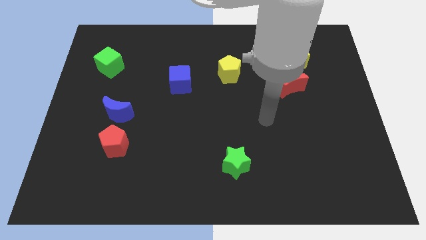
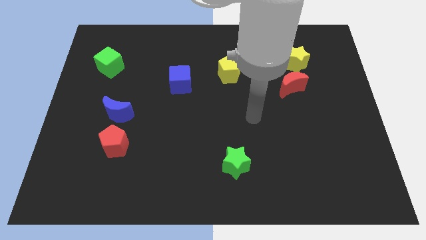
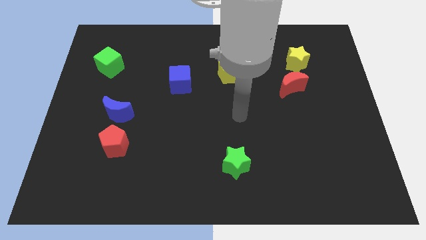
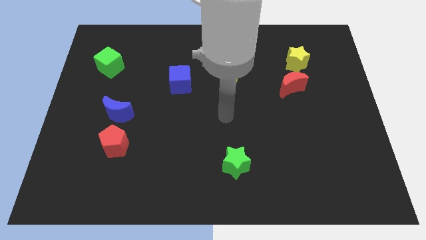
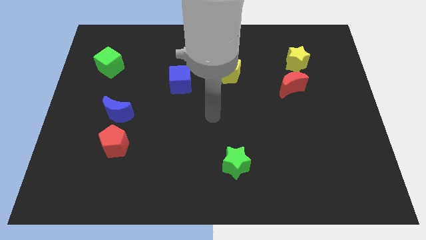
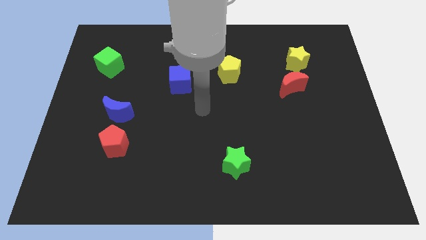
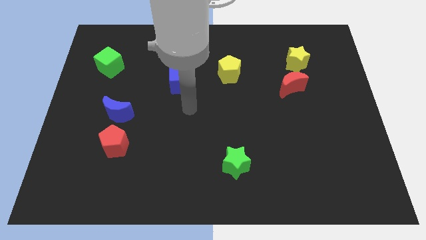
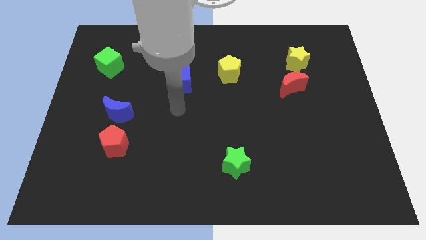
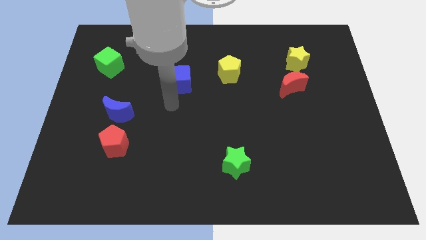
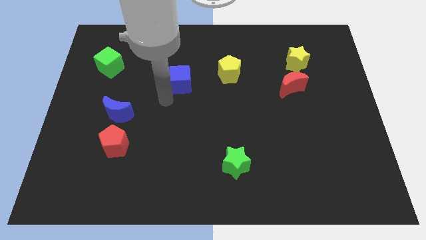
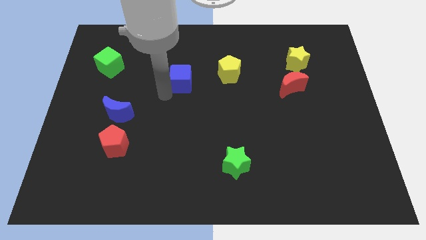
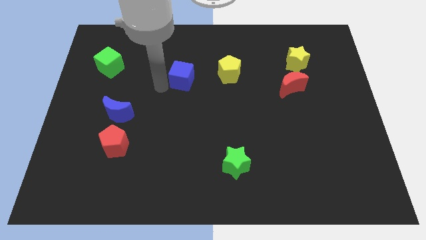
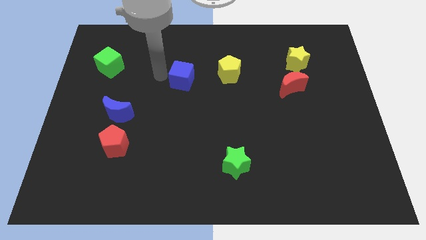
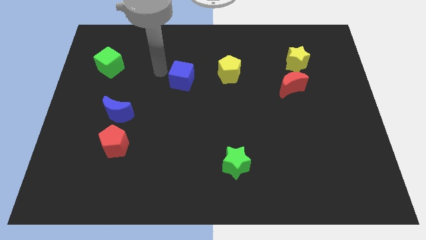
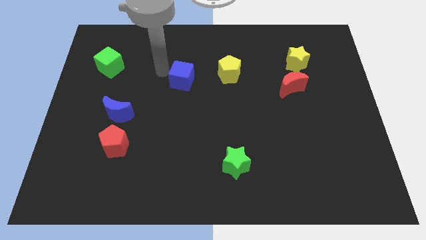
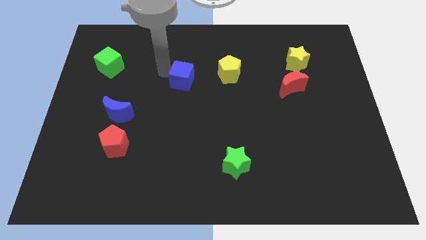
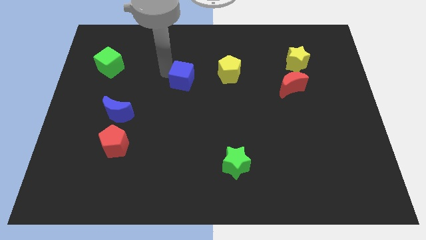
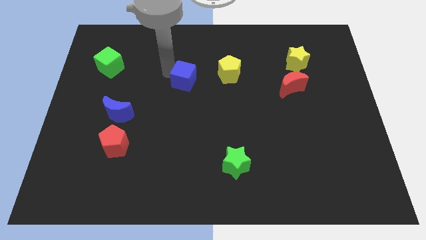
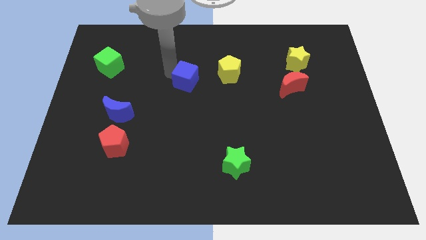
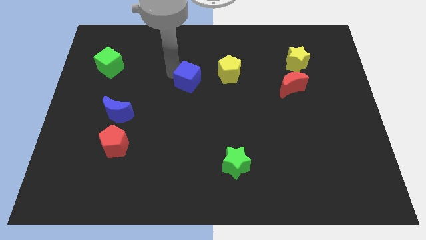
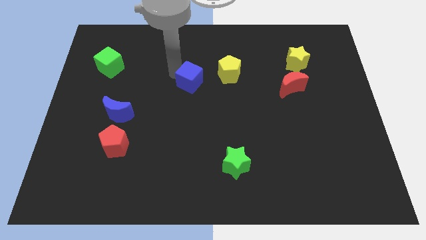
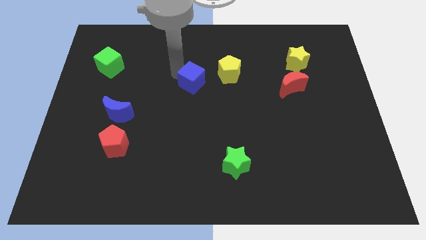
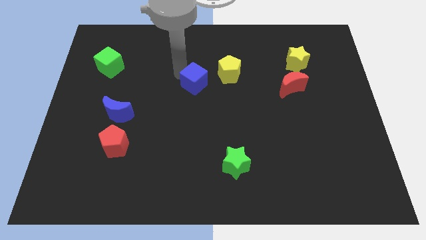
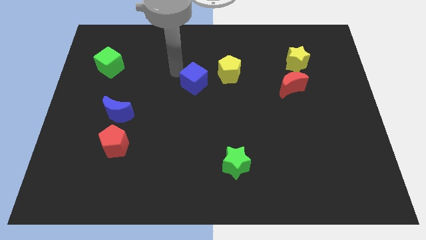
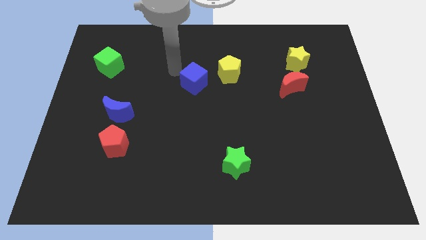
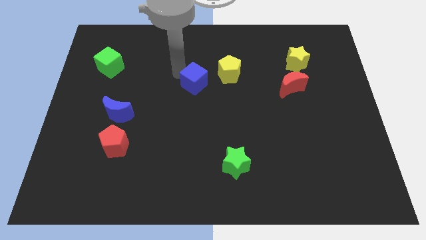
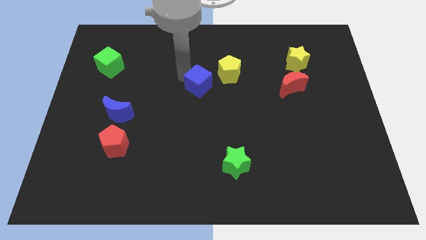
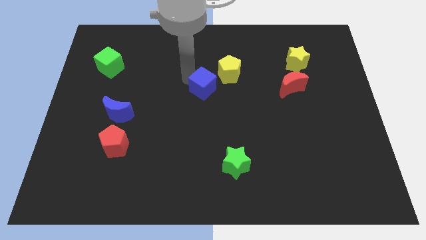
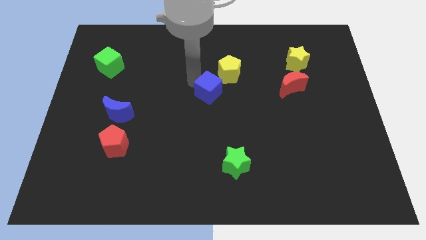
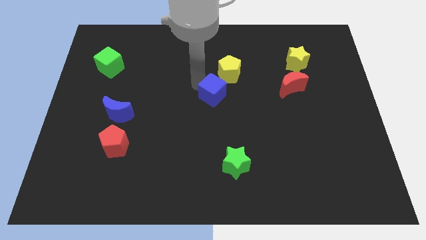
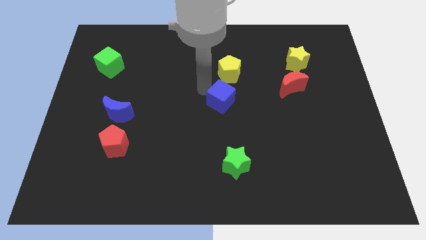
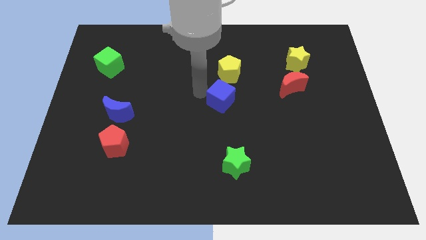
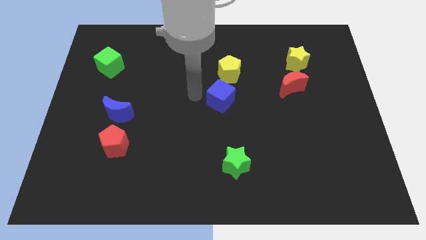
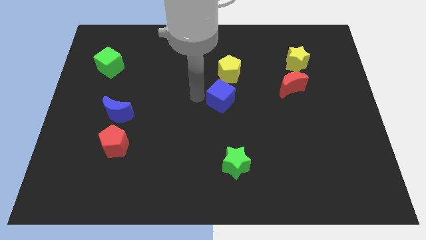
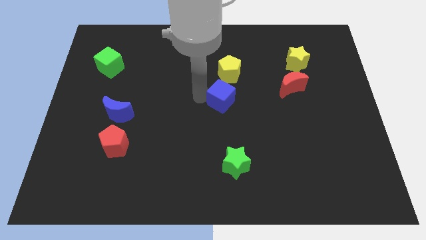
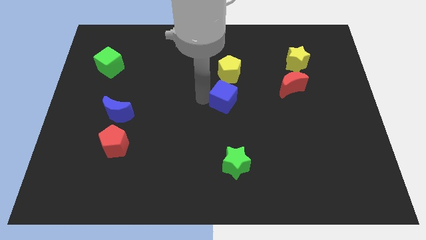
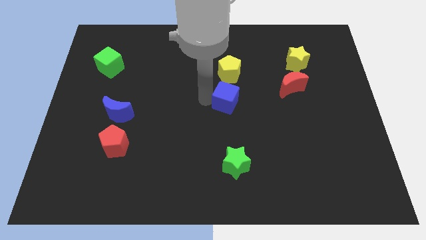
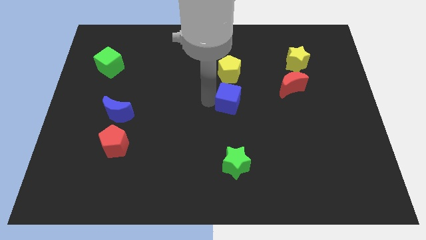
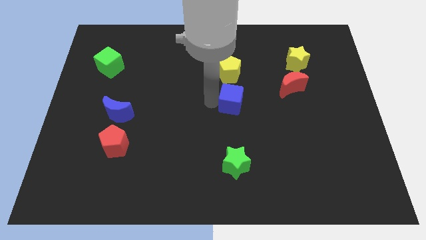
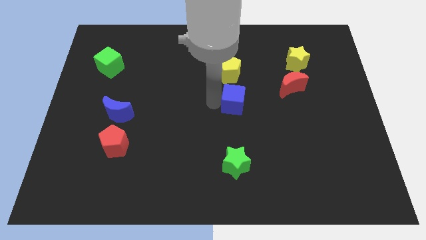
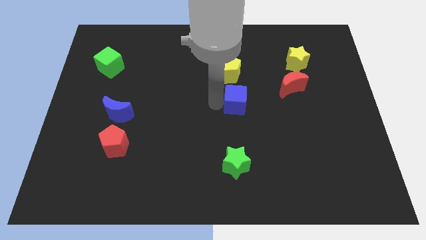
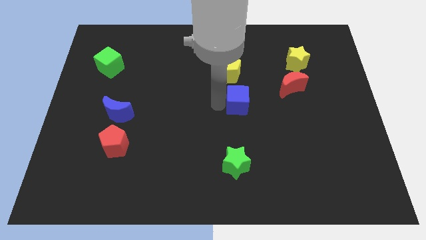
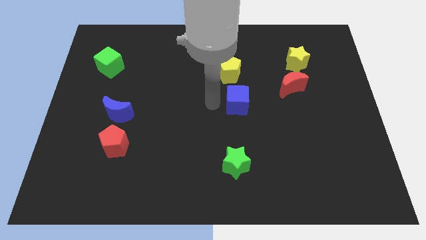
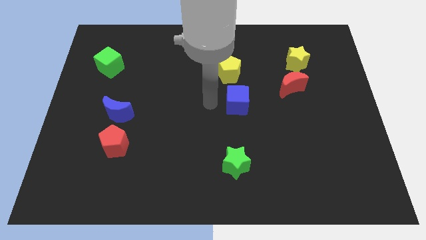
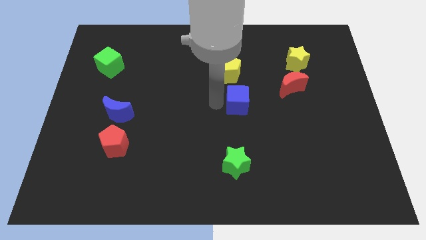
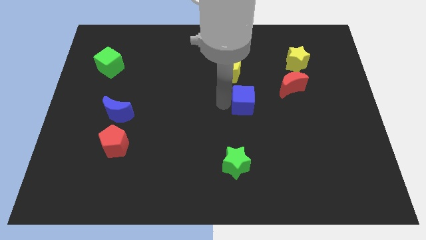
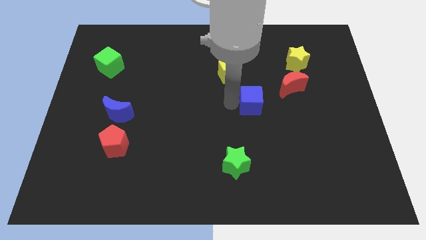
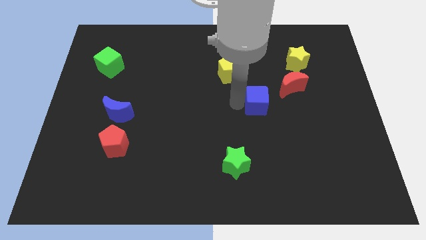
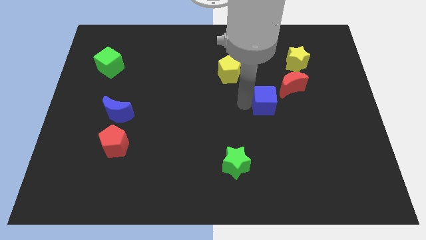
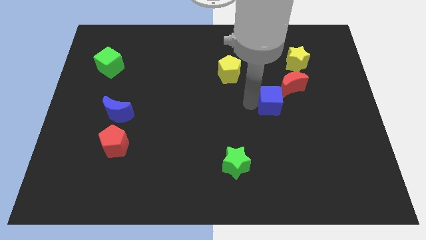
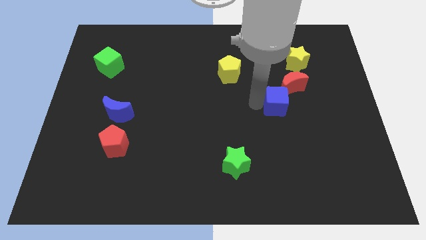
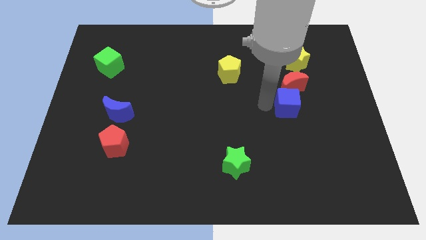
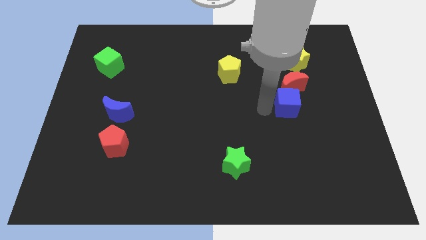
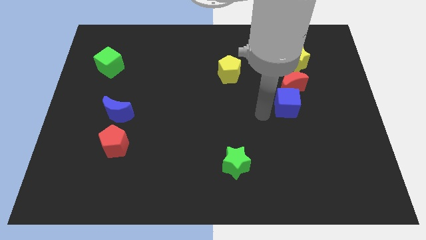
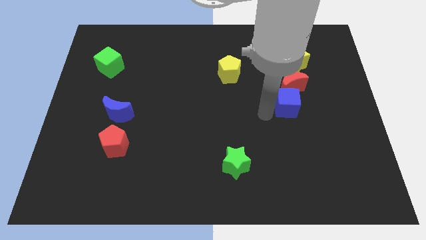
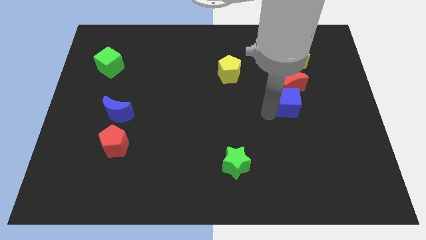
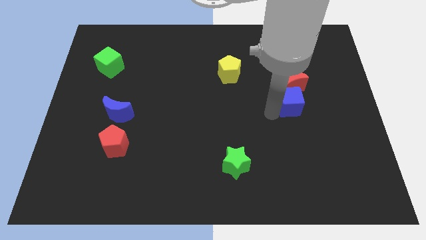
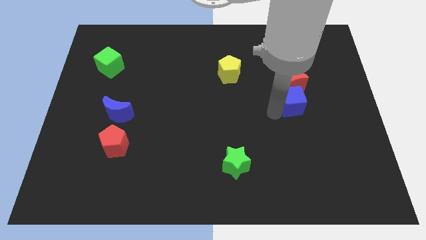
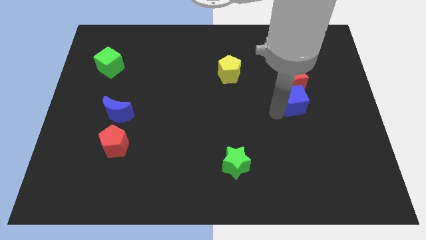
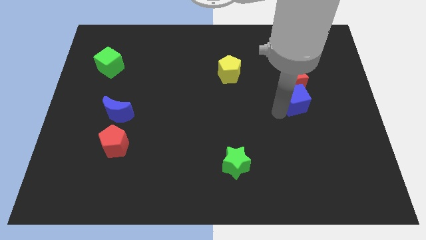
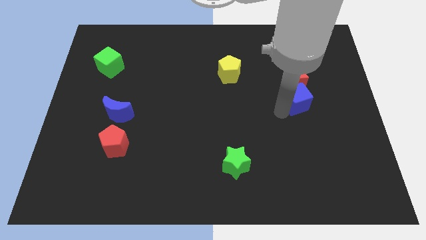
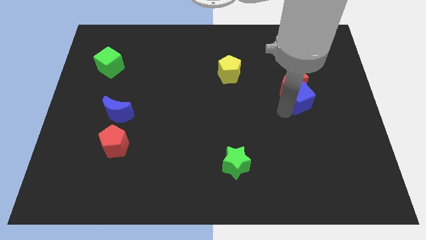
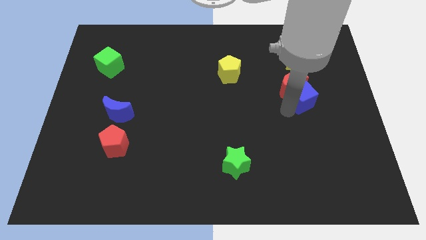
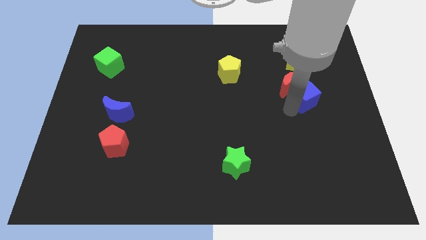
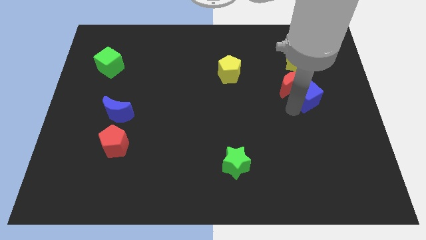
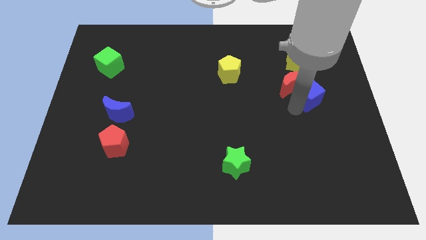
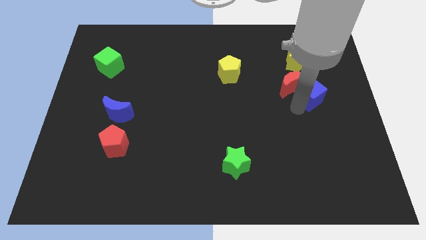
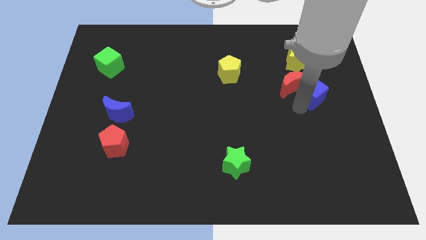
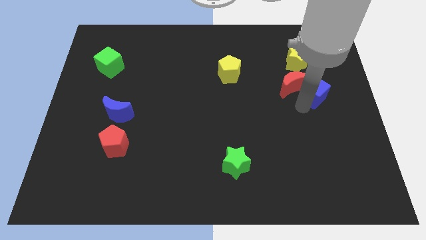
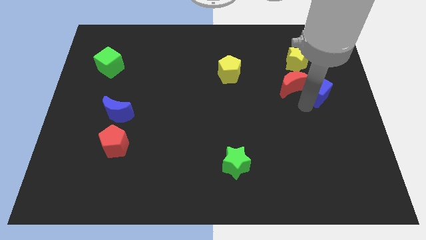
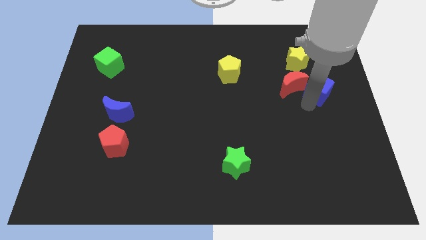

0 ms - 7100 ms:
put the blue cube to the bottom right of the yellow star
